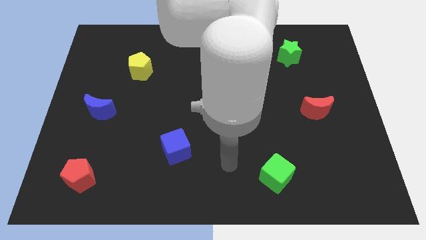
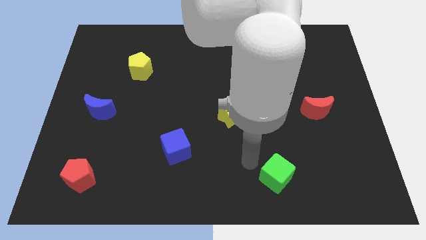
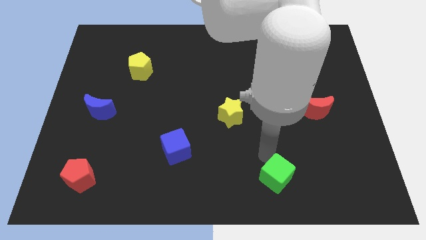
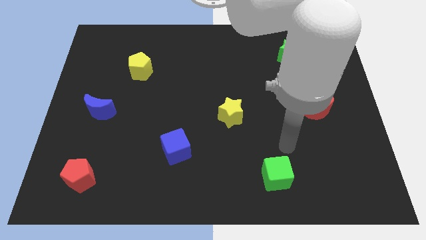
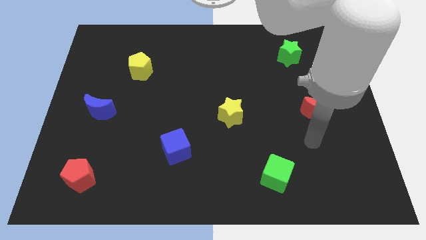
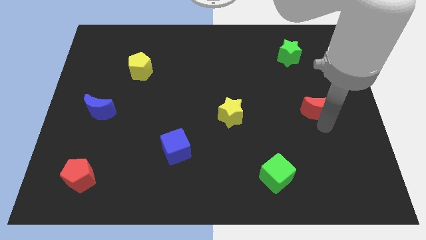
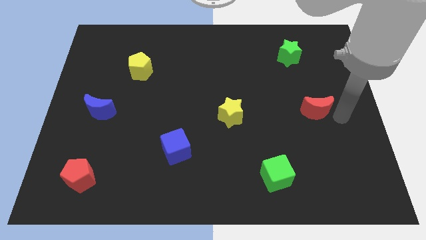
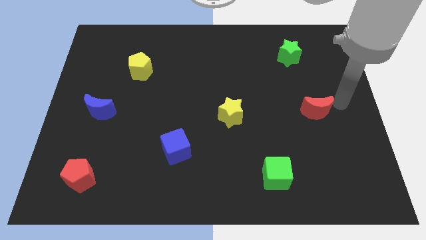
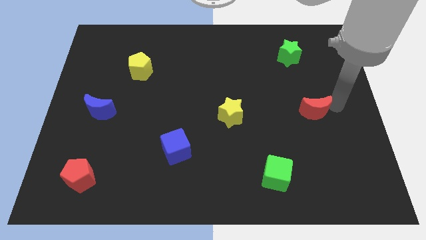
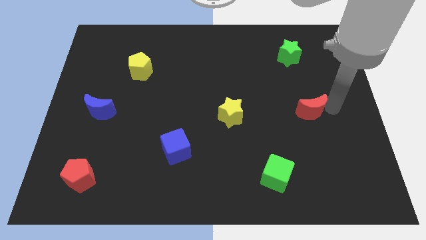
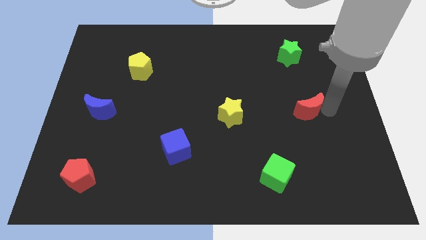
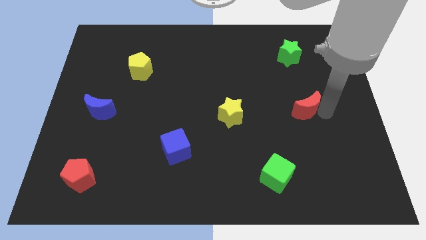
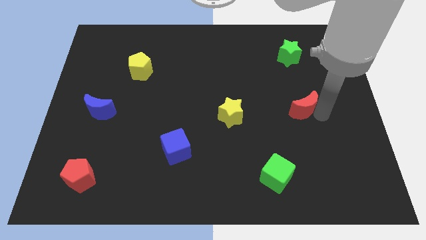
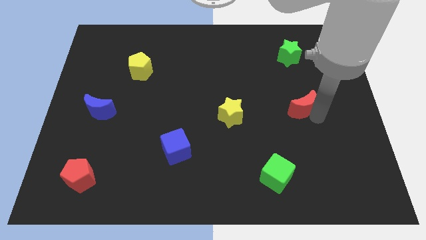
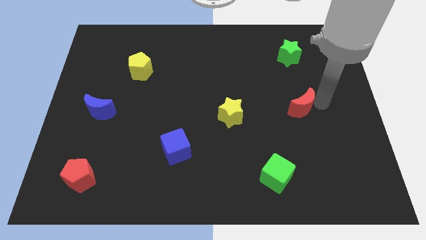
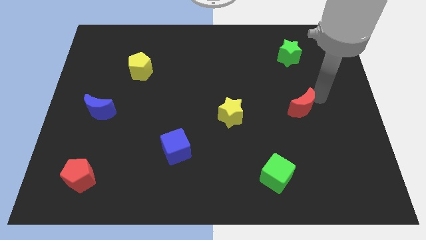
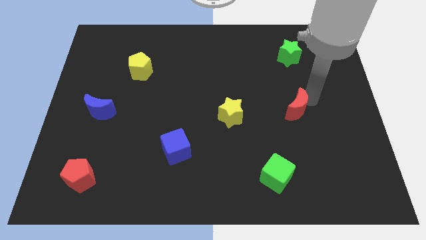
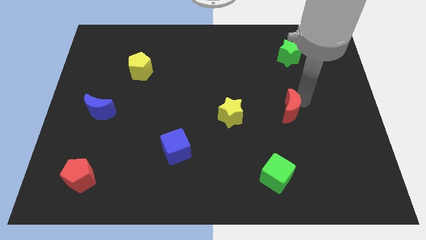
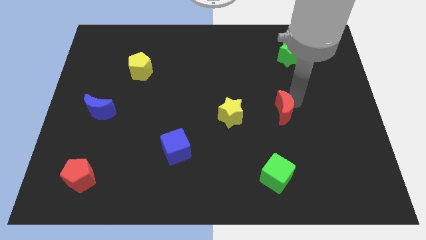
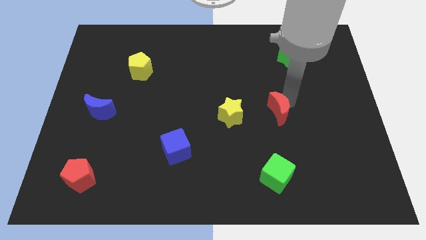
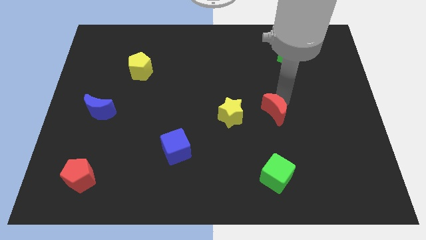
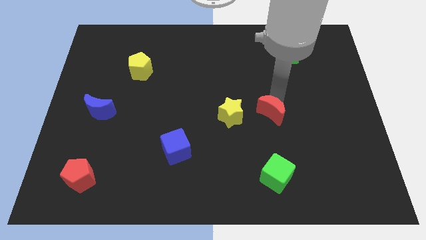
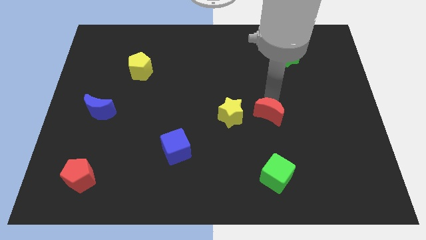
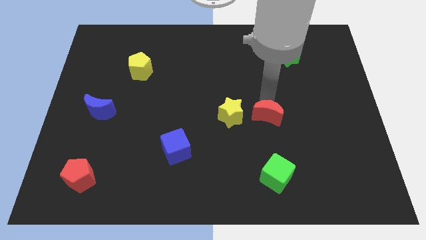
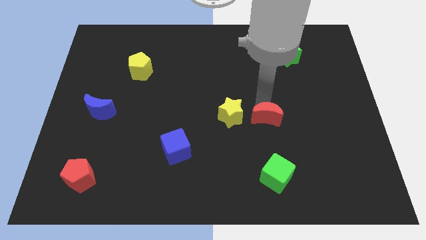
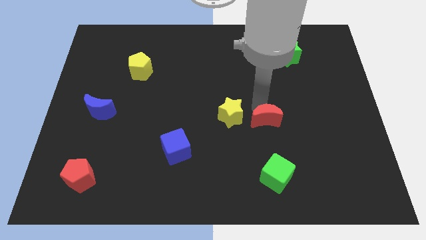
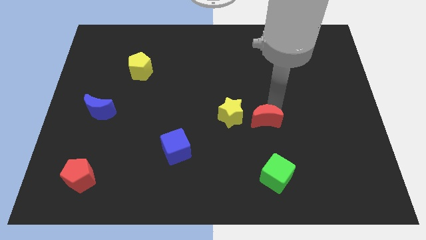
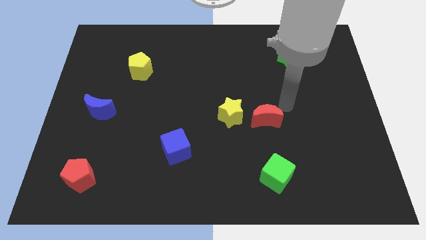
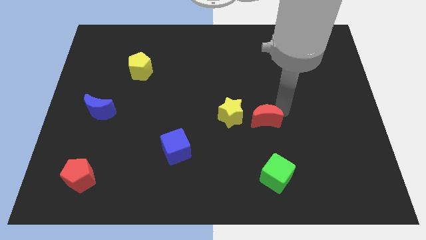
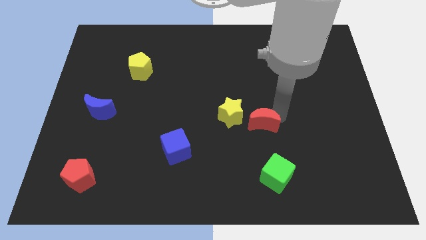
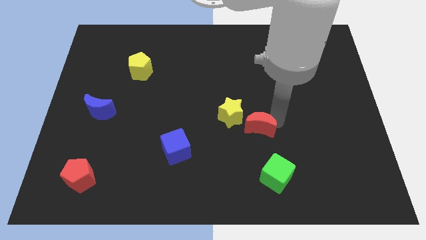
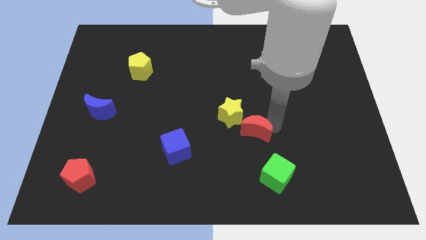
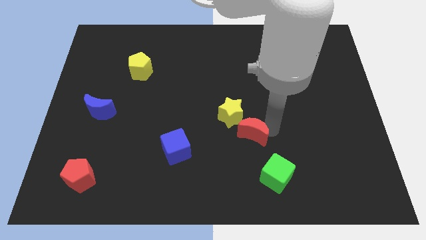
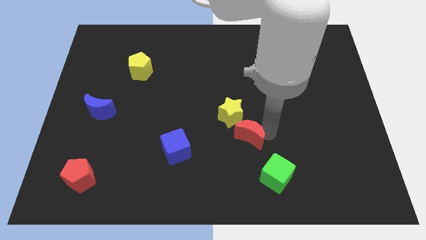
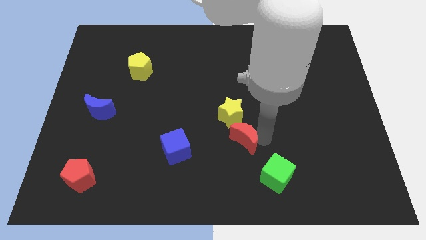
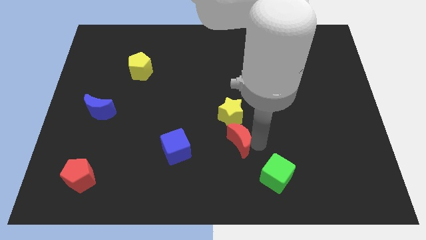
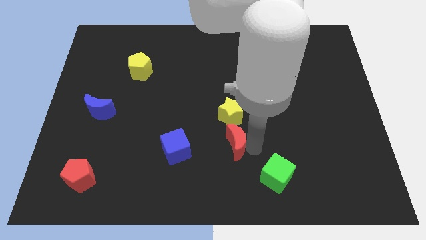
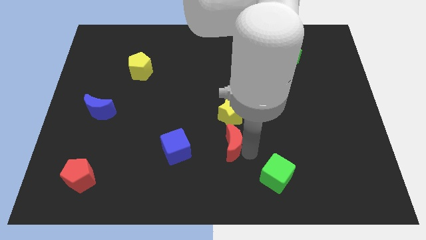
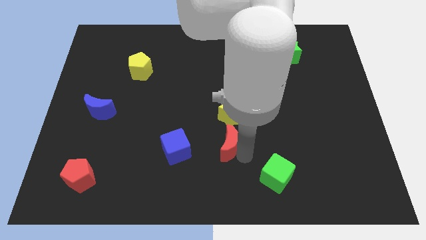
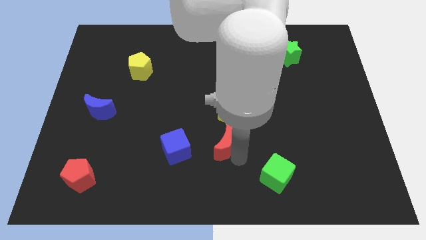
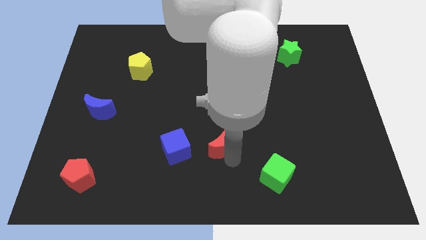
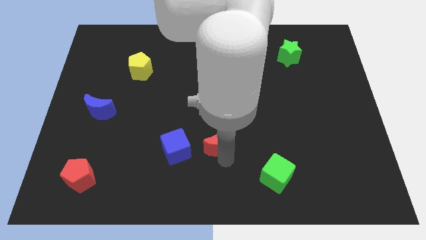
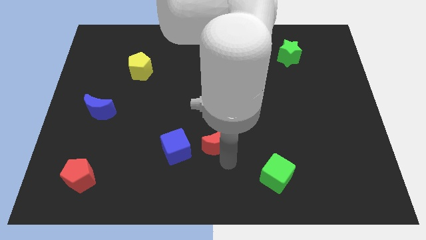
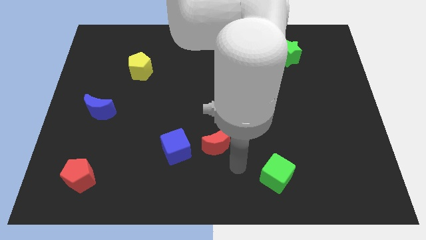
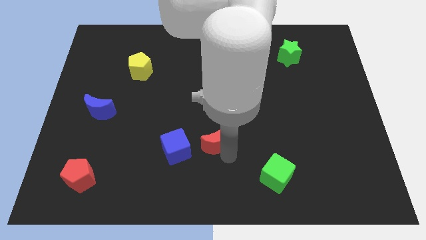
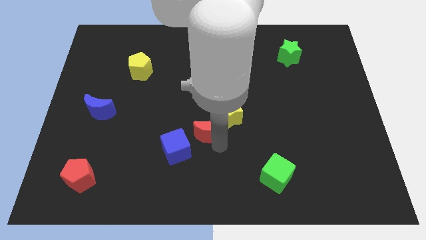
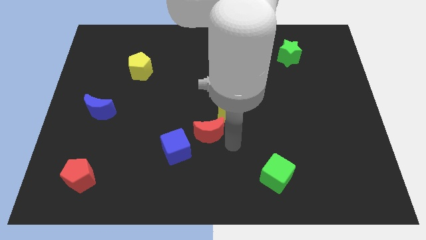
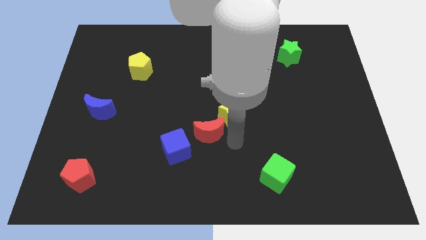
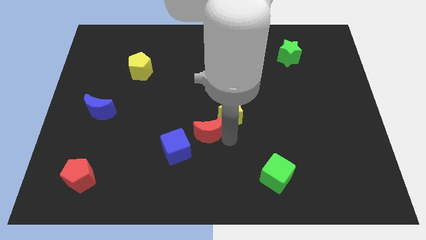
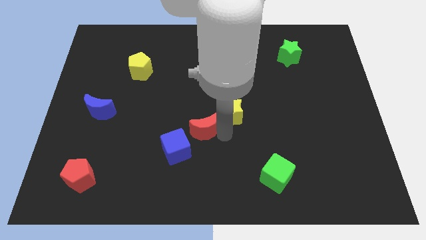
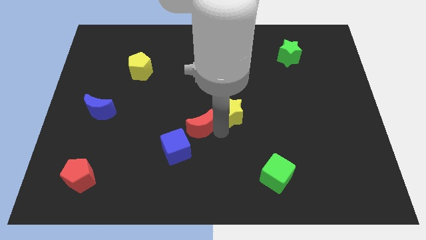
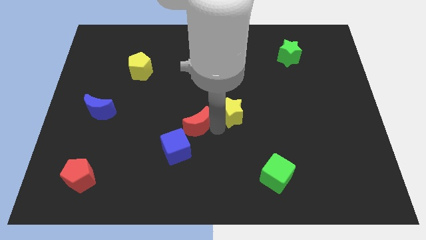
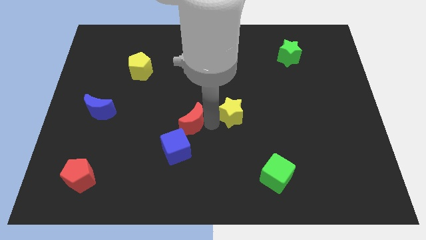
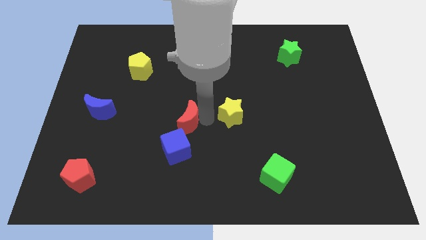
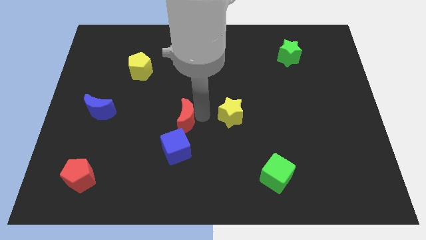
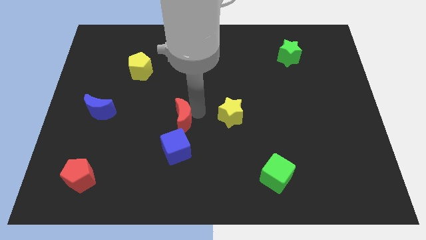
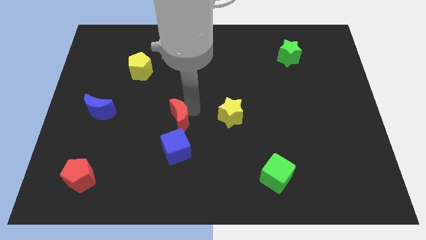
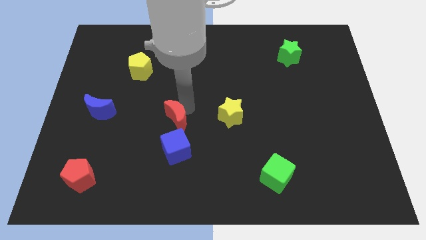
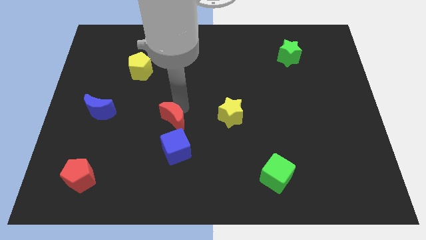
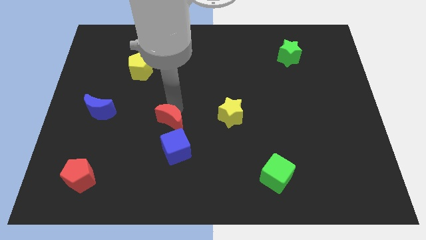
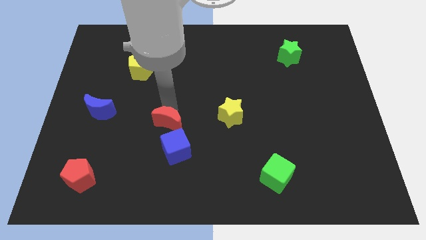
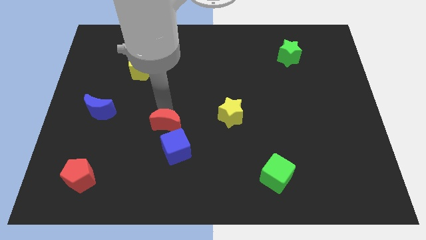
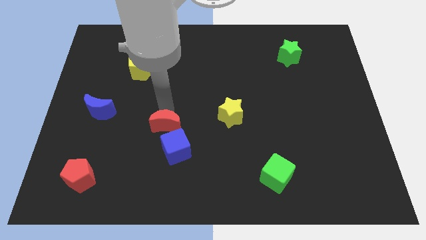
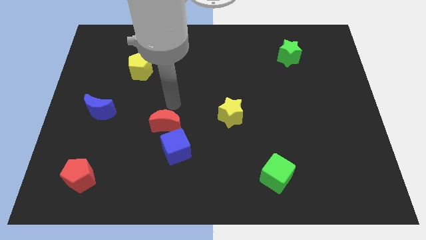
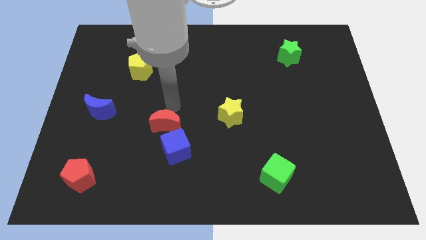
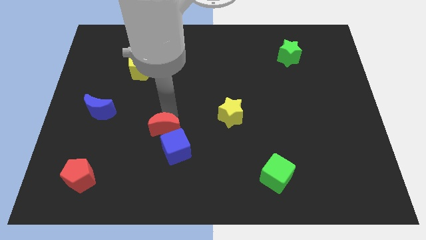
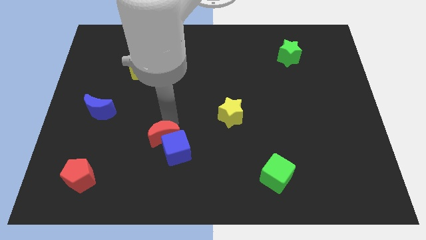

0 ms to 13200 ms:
slide the red moon just left of the blue cube
